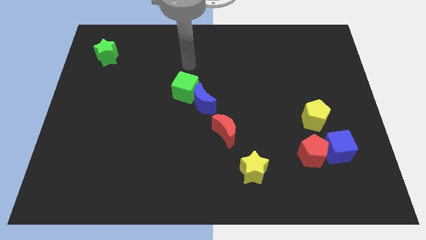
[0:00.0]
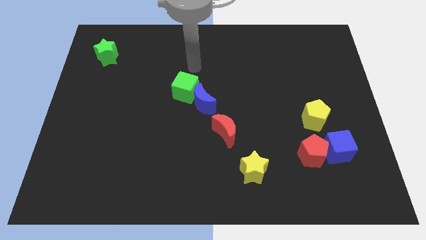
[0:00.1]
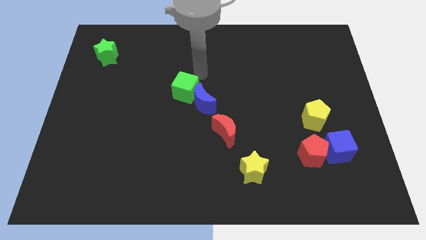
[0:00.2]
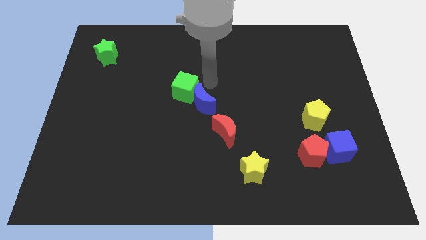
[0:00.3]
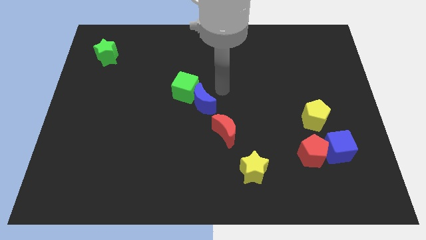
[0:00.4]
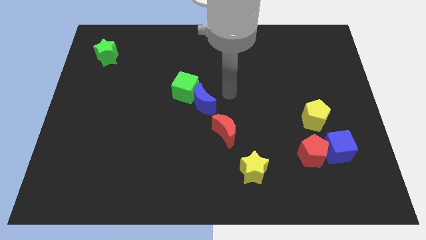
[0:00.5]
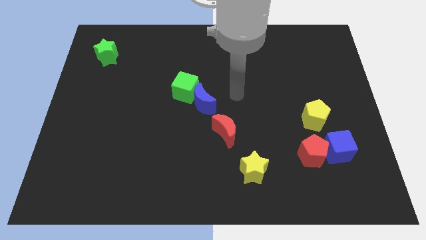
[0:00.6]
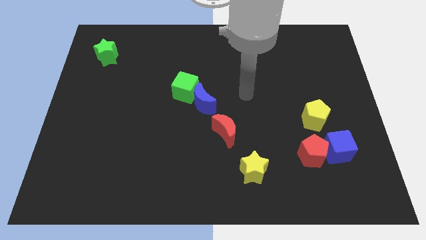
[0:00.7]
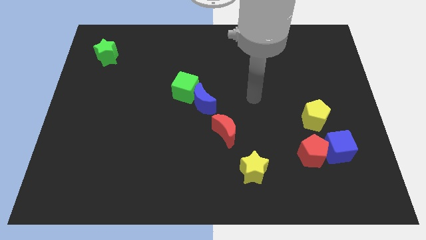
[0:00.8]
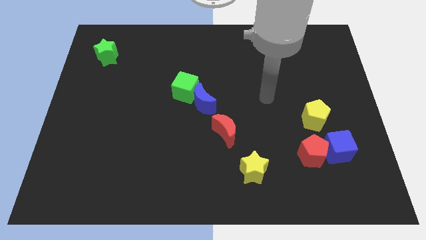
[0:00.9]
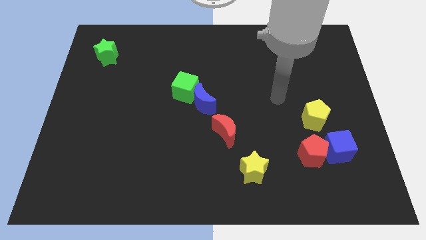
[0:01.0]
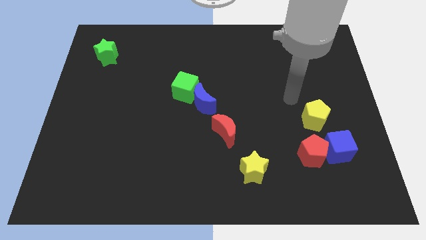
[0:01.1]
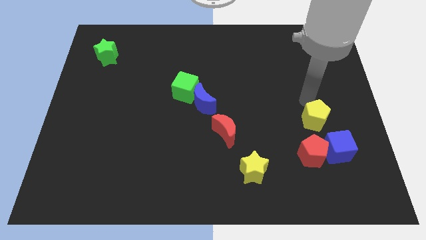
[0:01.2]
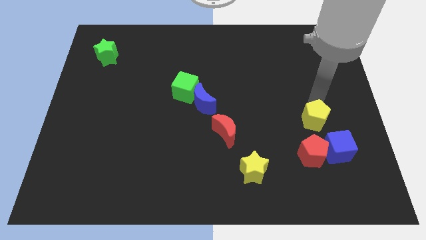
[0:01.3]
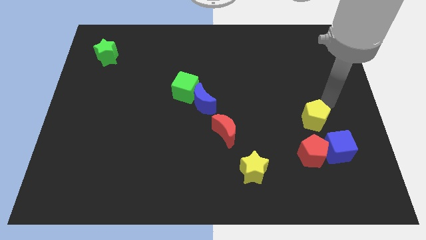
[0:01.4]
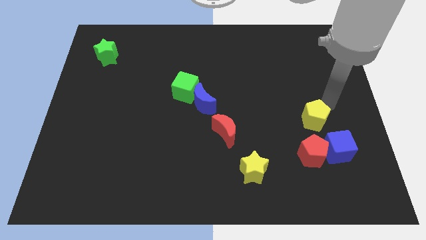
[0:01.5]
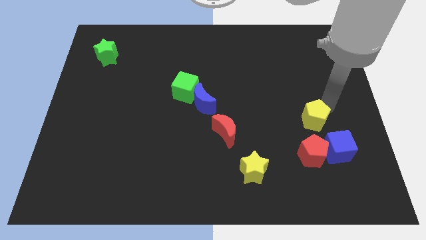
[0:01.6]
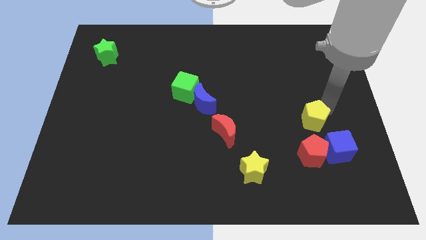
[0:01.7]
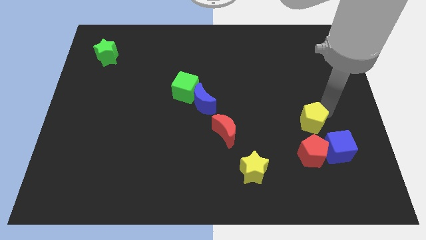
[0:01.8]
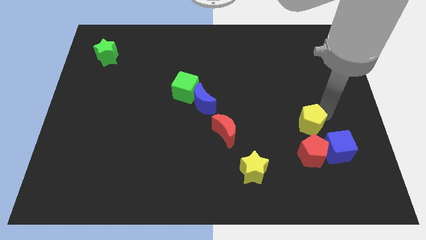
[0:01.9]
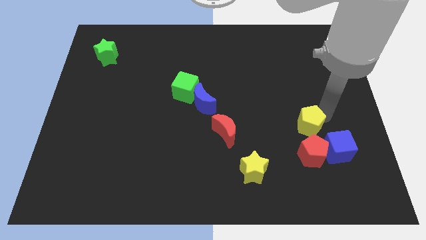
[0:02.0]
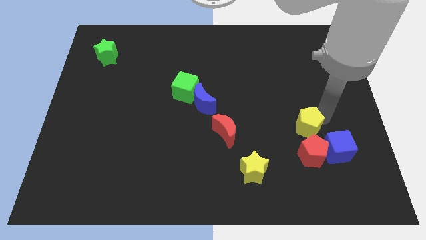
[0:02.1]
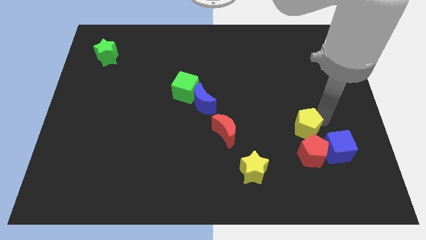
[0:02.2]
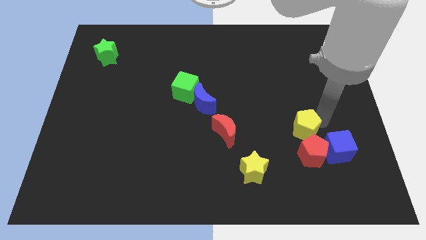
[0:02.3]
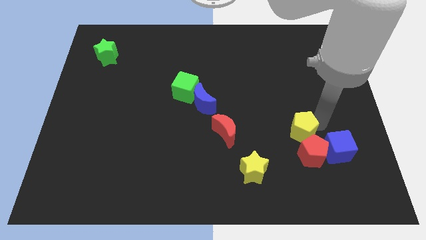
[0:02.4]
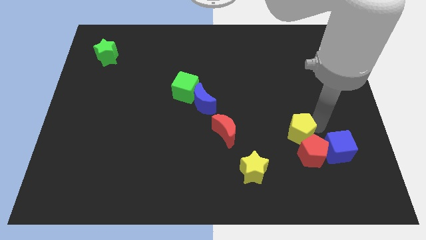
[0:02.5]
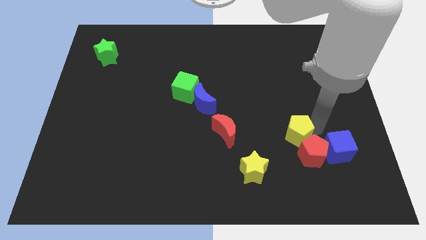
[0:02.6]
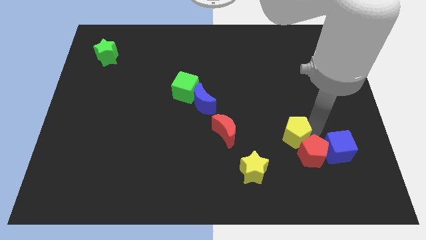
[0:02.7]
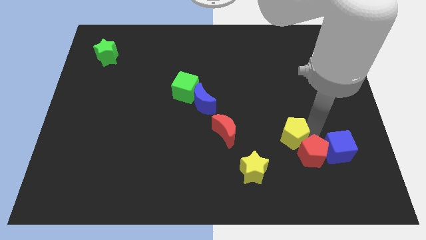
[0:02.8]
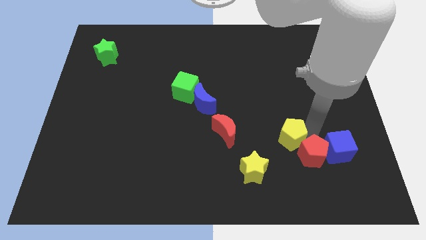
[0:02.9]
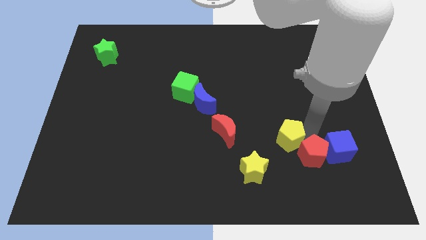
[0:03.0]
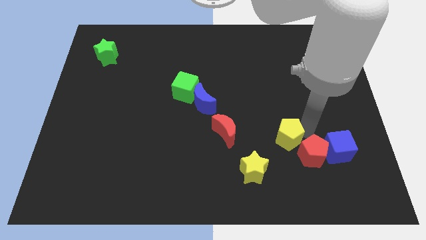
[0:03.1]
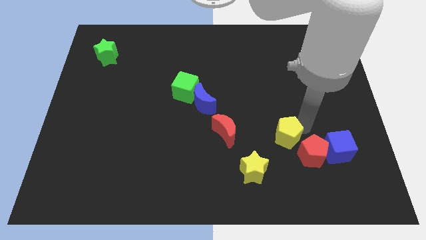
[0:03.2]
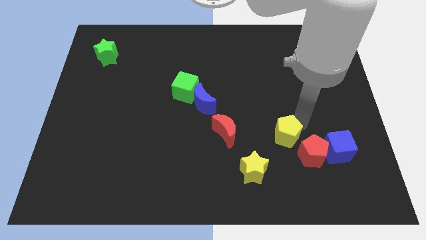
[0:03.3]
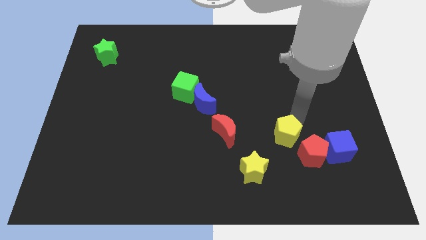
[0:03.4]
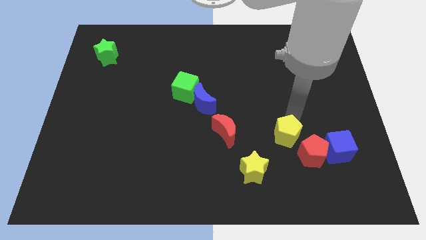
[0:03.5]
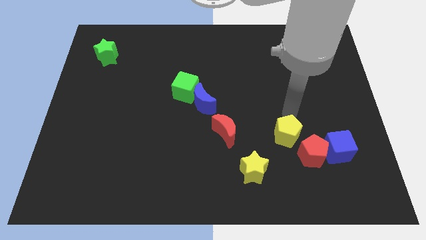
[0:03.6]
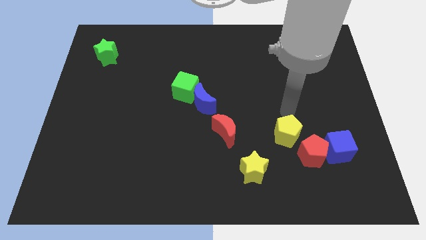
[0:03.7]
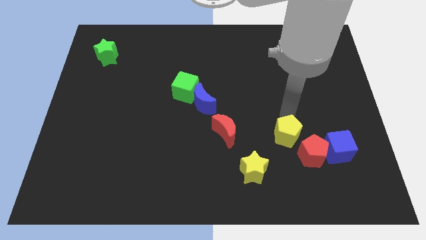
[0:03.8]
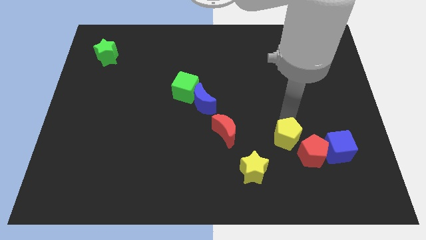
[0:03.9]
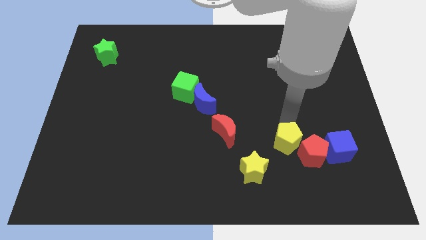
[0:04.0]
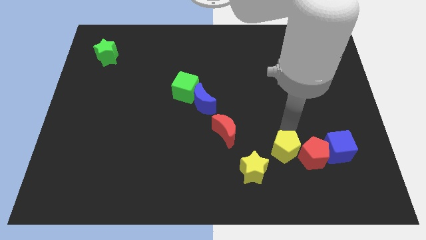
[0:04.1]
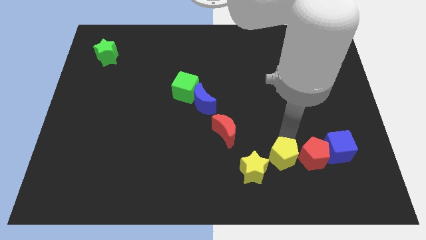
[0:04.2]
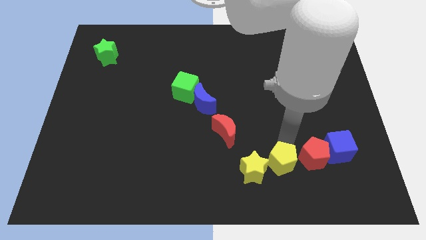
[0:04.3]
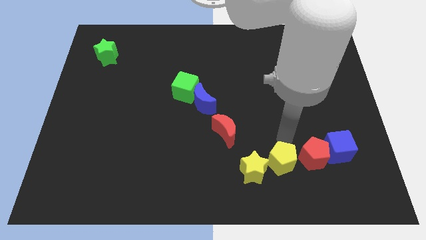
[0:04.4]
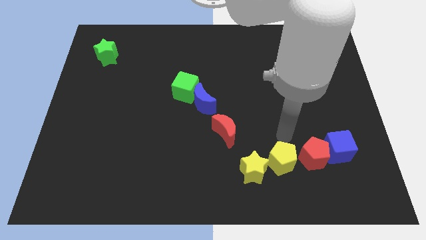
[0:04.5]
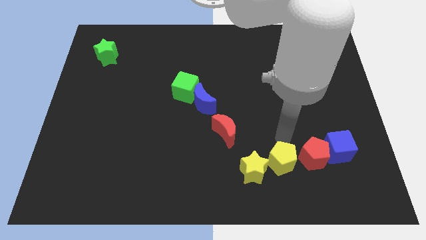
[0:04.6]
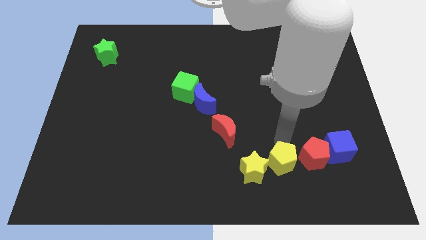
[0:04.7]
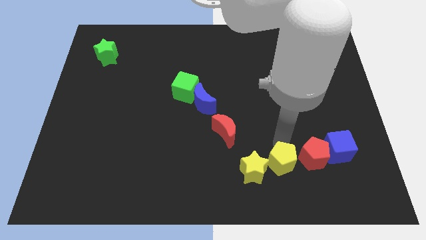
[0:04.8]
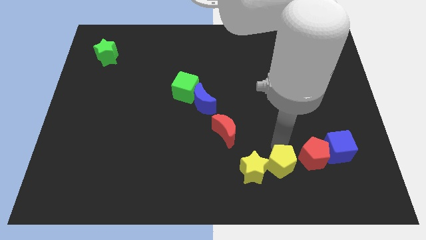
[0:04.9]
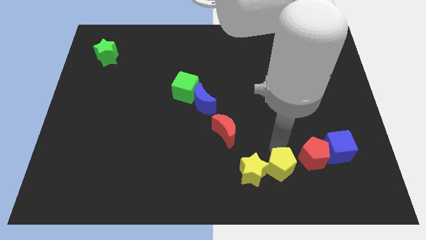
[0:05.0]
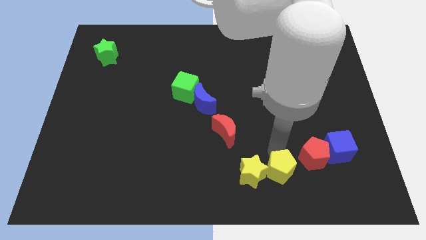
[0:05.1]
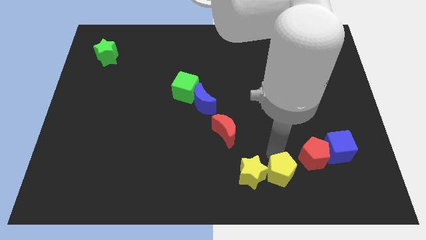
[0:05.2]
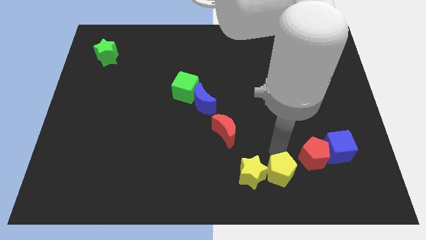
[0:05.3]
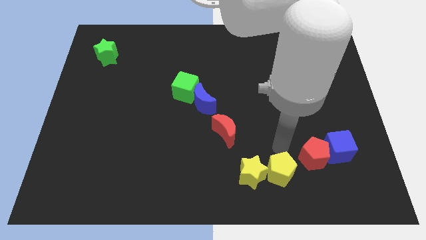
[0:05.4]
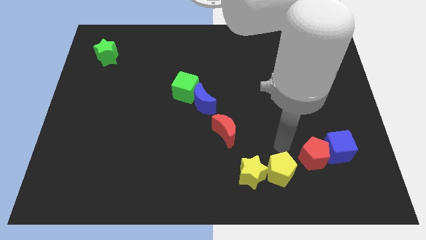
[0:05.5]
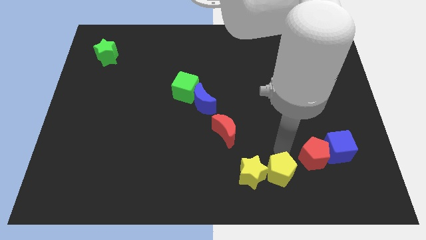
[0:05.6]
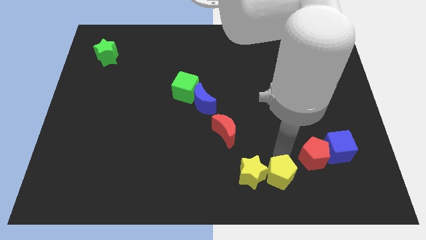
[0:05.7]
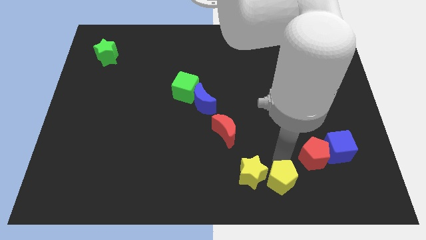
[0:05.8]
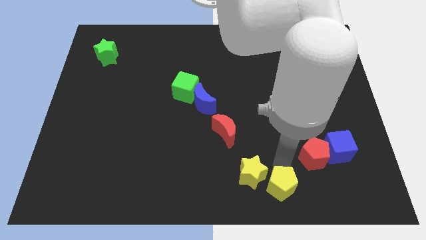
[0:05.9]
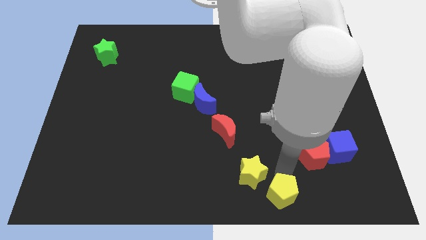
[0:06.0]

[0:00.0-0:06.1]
move the yellow pentagon to the bottom side
